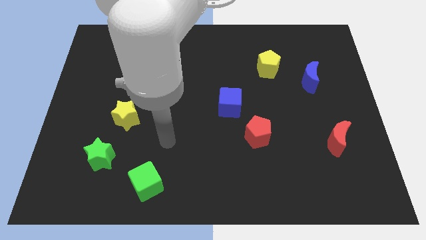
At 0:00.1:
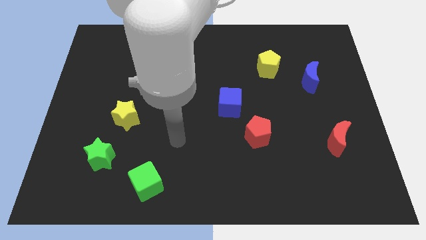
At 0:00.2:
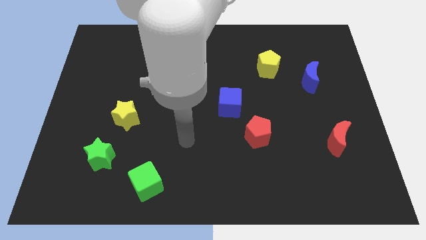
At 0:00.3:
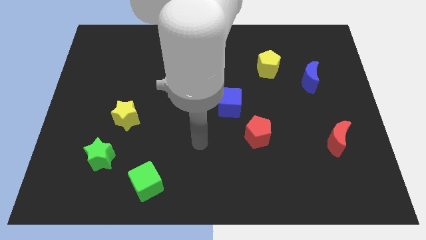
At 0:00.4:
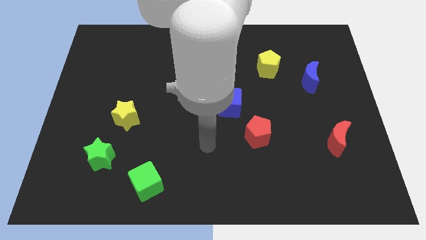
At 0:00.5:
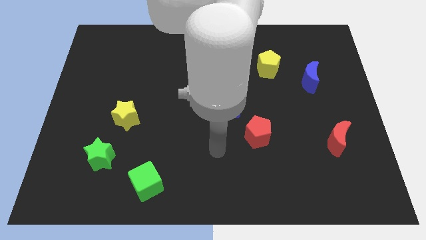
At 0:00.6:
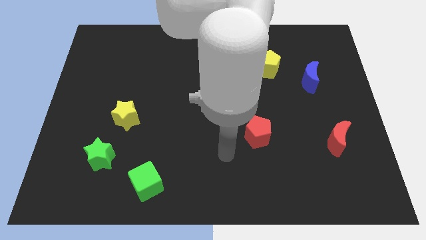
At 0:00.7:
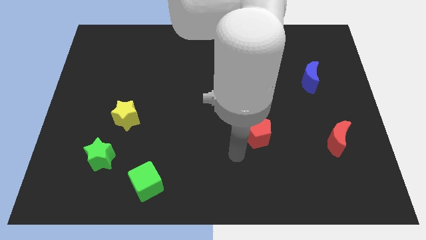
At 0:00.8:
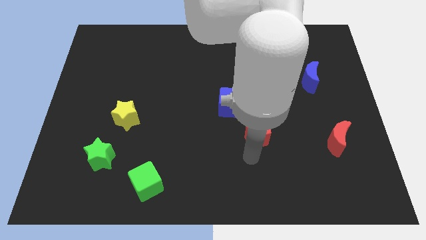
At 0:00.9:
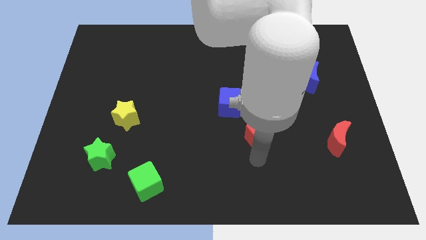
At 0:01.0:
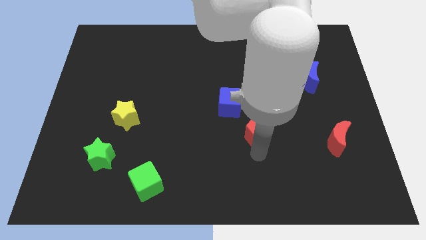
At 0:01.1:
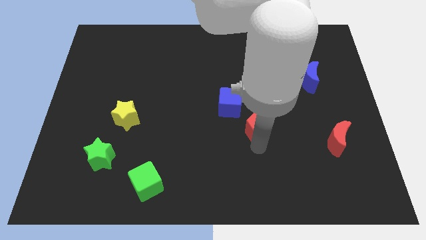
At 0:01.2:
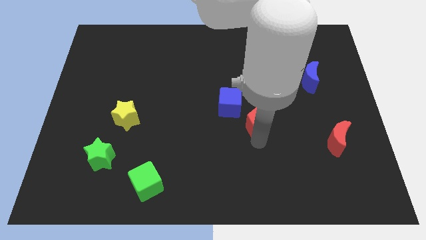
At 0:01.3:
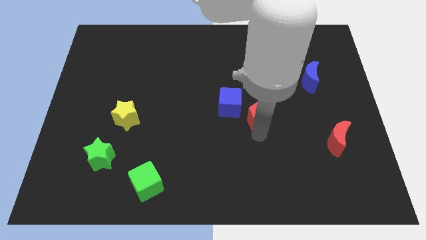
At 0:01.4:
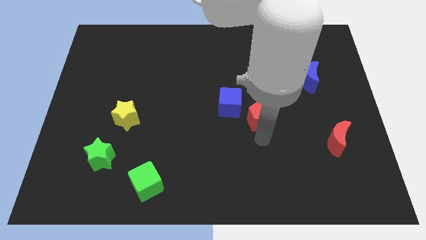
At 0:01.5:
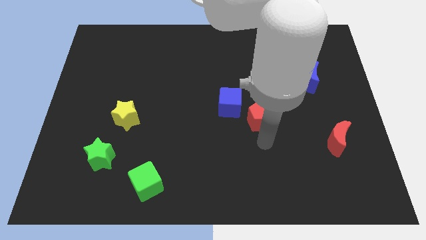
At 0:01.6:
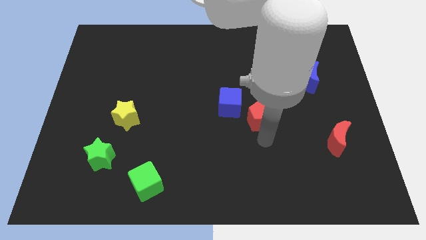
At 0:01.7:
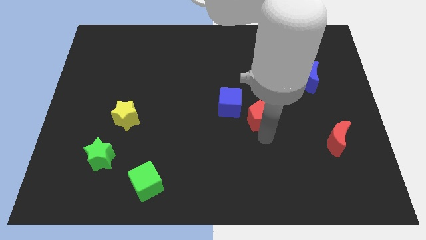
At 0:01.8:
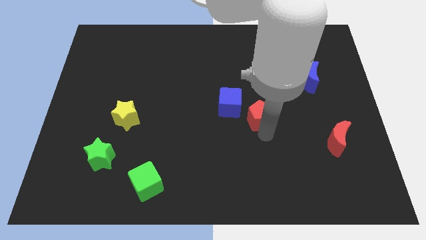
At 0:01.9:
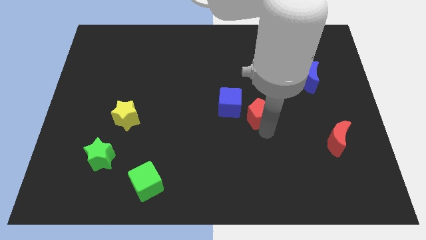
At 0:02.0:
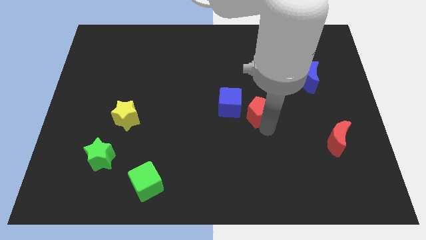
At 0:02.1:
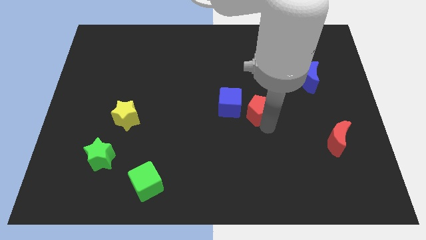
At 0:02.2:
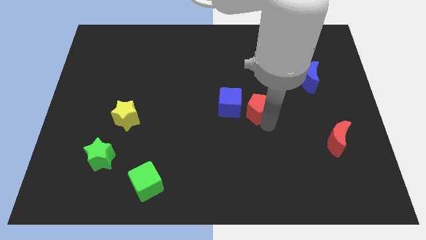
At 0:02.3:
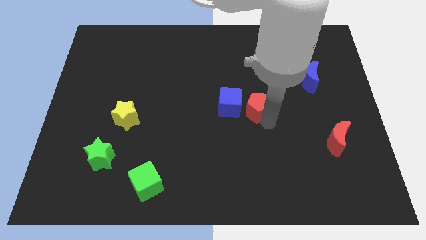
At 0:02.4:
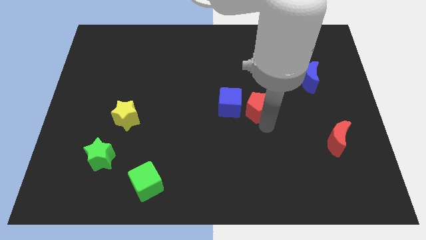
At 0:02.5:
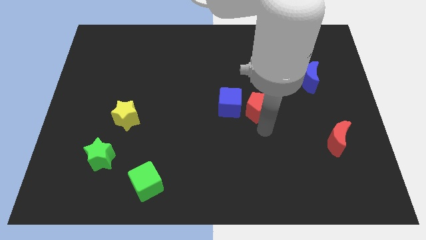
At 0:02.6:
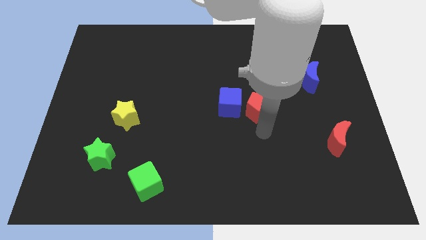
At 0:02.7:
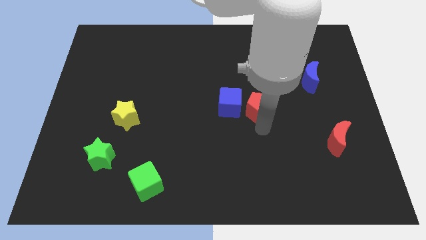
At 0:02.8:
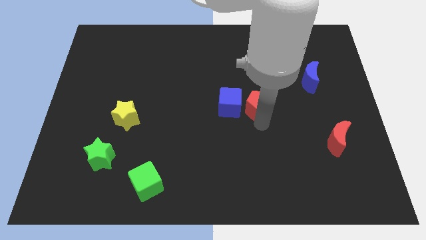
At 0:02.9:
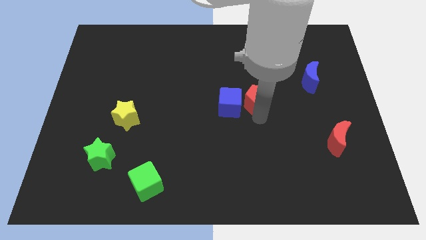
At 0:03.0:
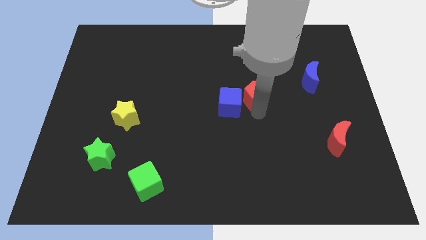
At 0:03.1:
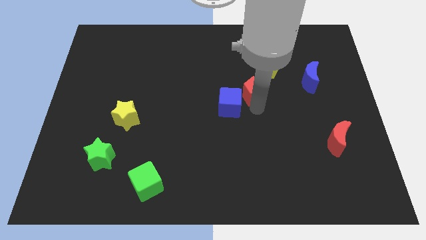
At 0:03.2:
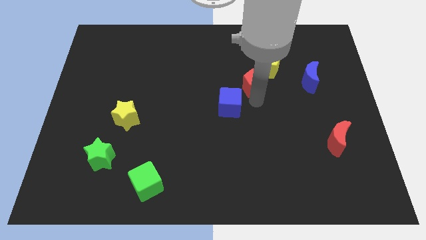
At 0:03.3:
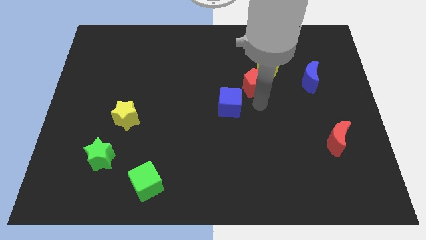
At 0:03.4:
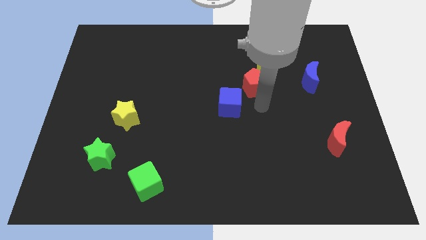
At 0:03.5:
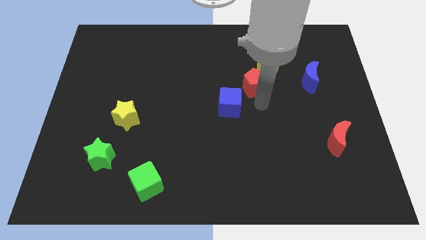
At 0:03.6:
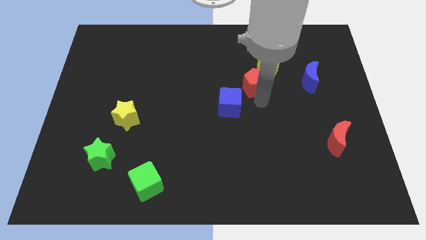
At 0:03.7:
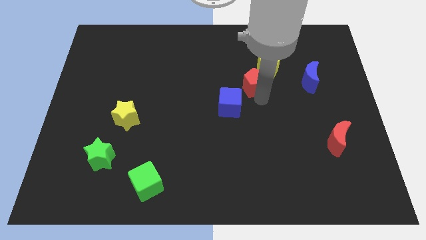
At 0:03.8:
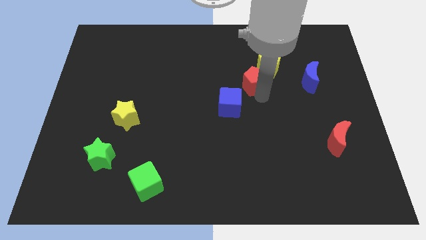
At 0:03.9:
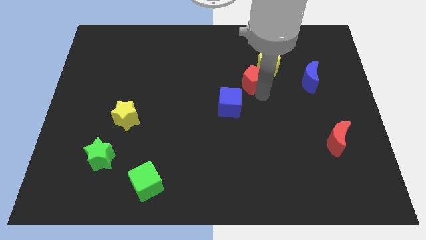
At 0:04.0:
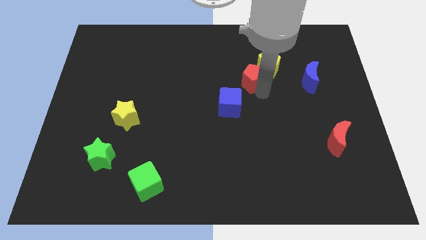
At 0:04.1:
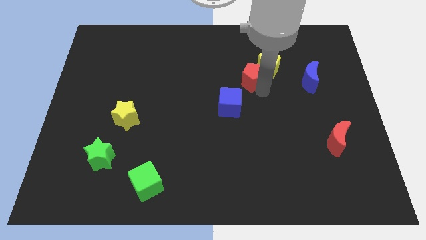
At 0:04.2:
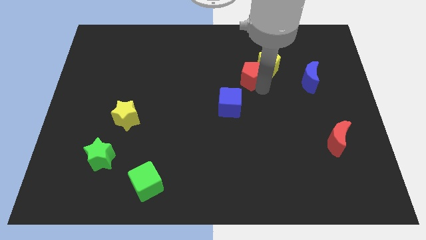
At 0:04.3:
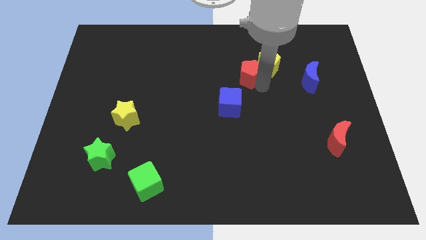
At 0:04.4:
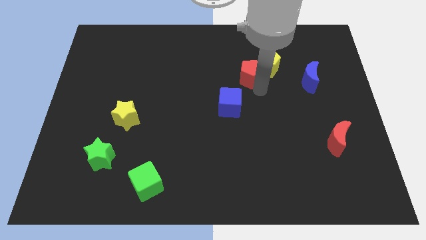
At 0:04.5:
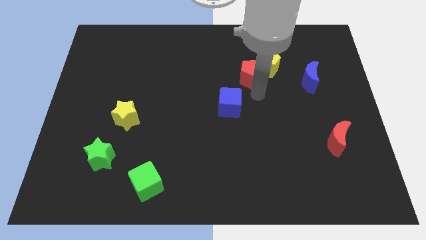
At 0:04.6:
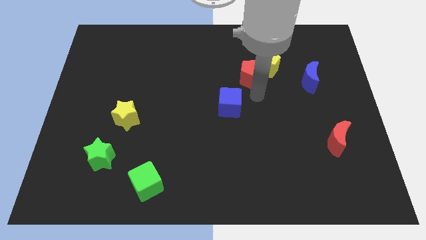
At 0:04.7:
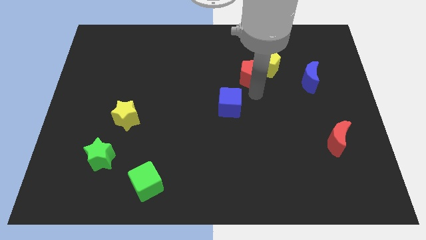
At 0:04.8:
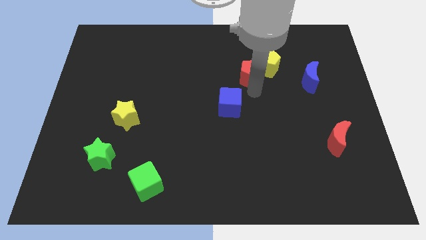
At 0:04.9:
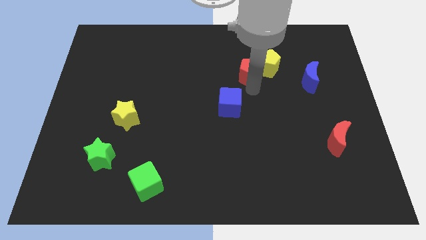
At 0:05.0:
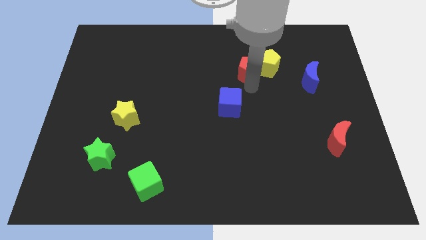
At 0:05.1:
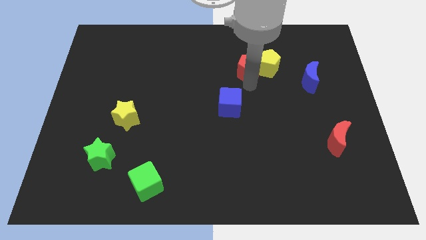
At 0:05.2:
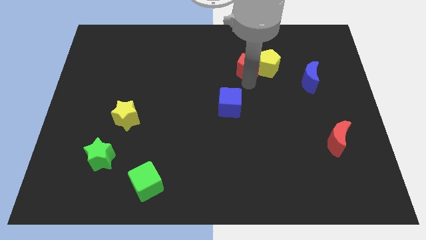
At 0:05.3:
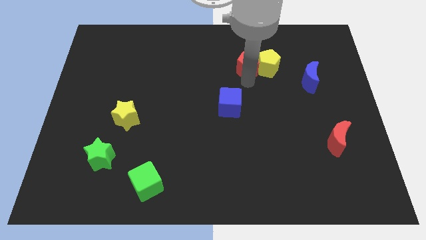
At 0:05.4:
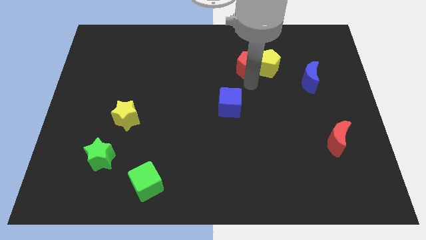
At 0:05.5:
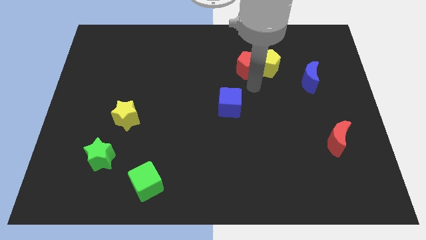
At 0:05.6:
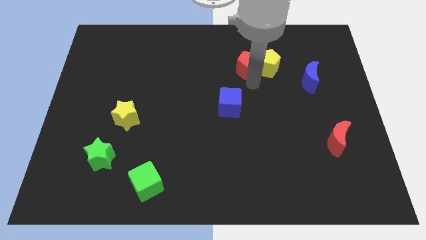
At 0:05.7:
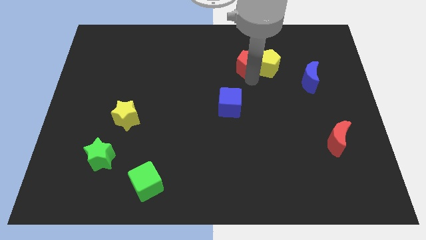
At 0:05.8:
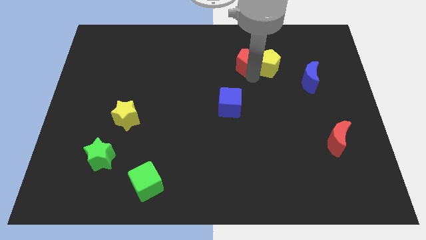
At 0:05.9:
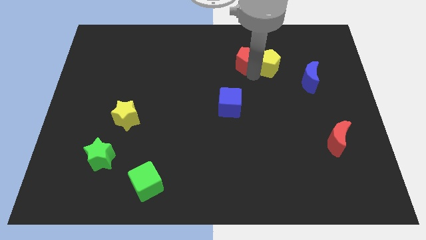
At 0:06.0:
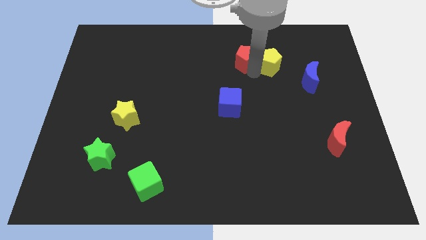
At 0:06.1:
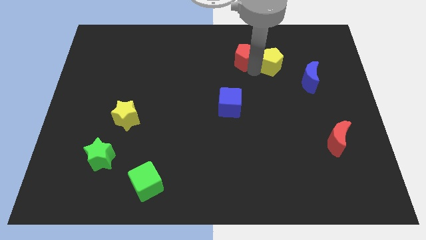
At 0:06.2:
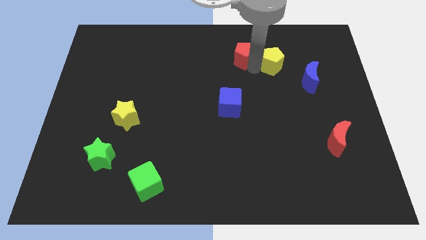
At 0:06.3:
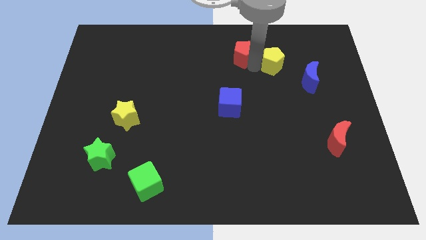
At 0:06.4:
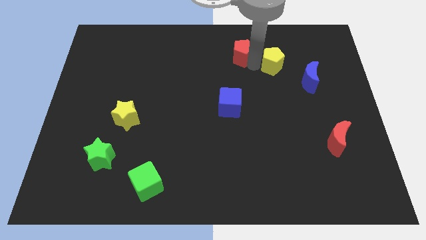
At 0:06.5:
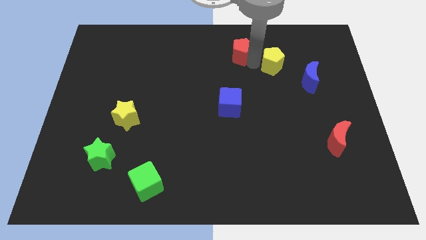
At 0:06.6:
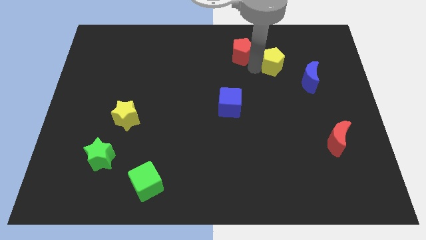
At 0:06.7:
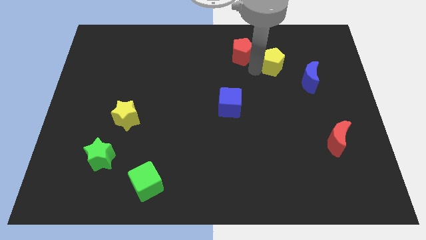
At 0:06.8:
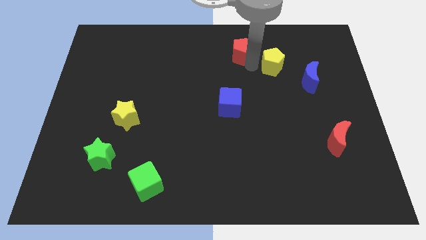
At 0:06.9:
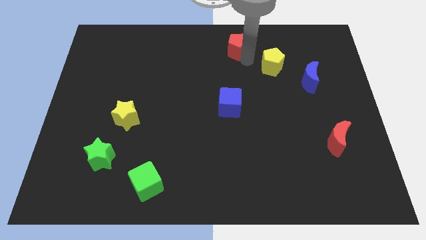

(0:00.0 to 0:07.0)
push the red pentagon to the towards your base

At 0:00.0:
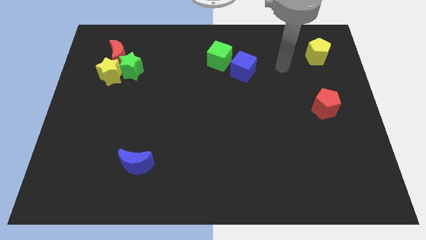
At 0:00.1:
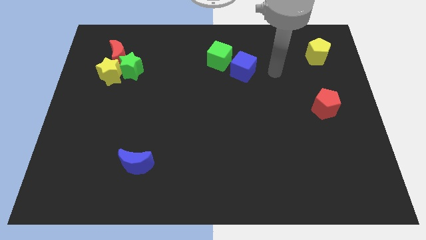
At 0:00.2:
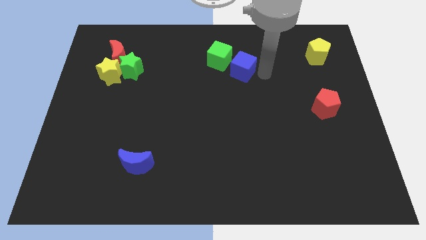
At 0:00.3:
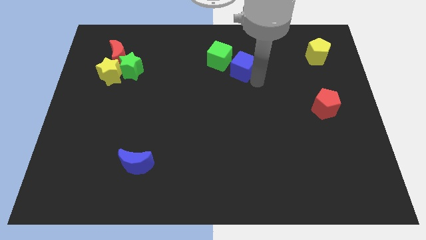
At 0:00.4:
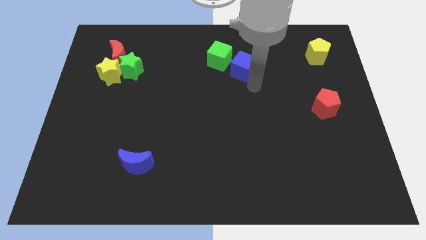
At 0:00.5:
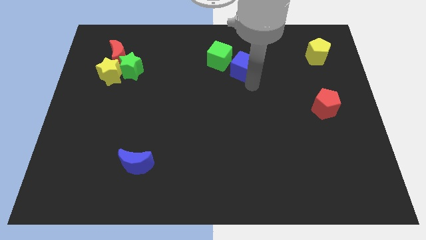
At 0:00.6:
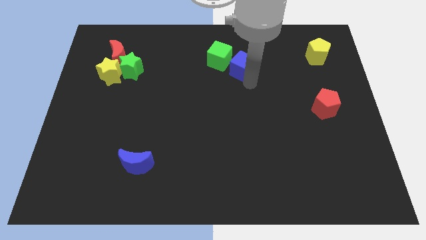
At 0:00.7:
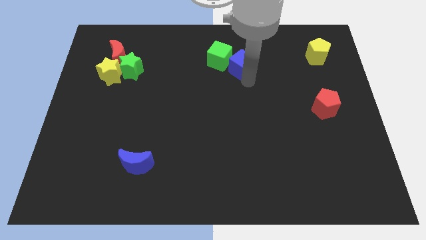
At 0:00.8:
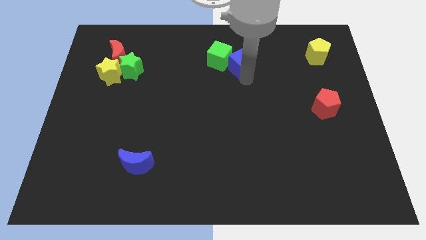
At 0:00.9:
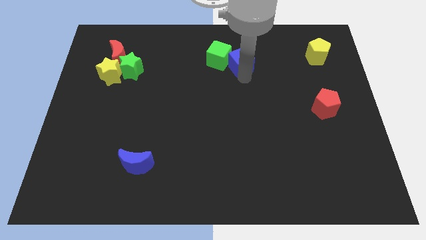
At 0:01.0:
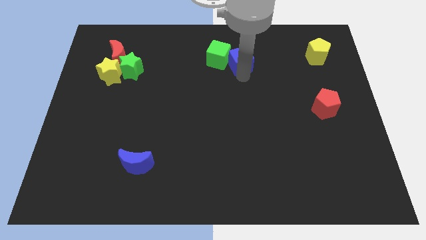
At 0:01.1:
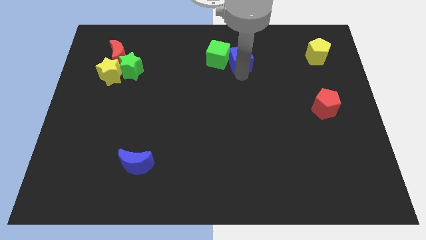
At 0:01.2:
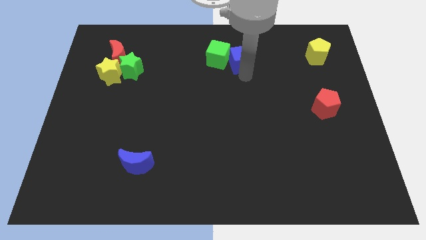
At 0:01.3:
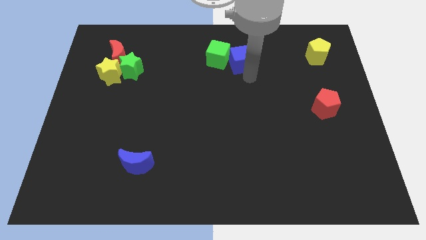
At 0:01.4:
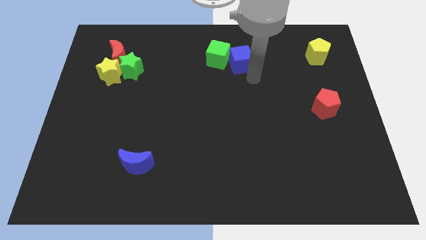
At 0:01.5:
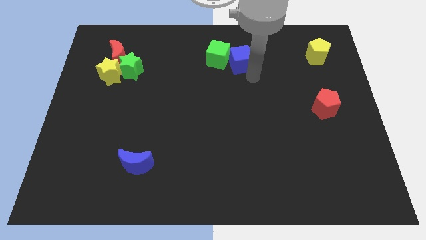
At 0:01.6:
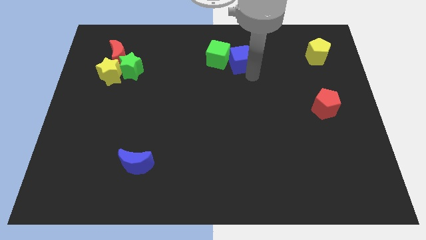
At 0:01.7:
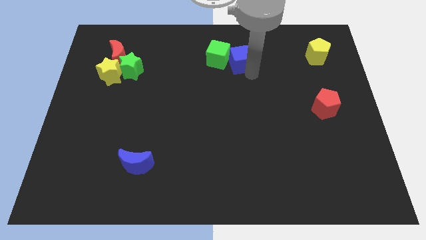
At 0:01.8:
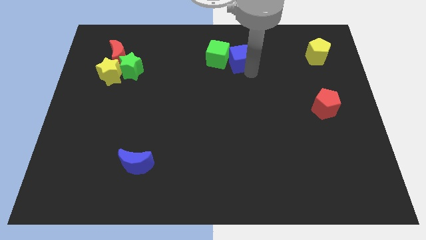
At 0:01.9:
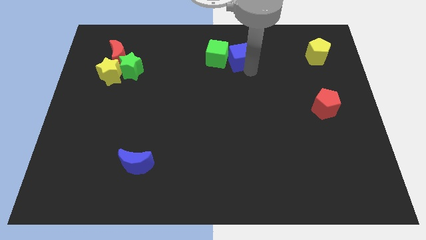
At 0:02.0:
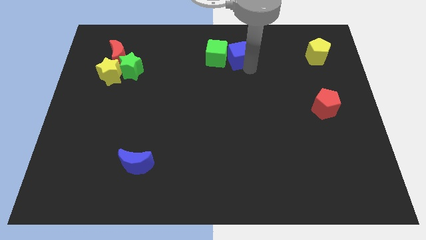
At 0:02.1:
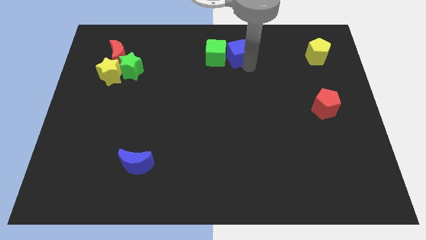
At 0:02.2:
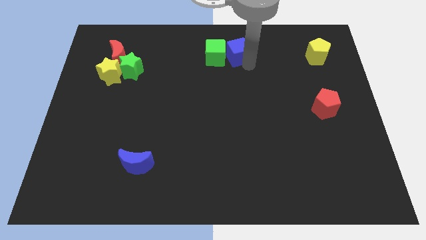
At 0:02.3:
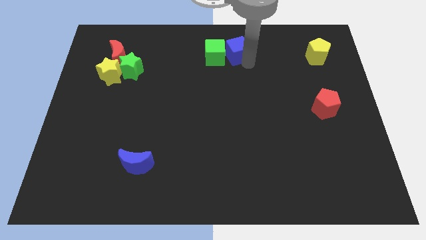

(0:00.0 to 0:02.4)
push the blue cube to the towards your base
